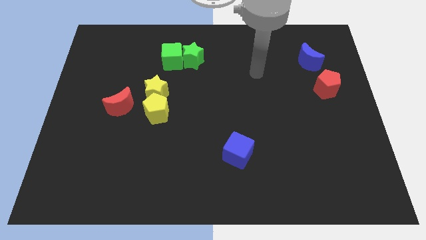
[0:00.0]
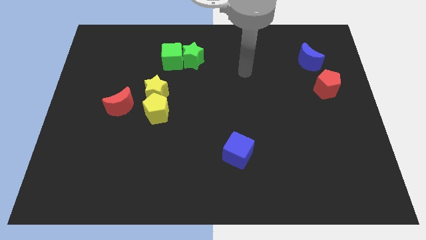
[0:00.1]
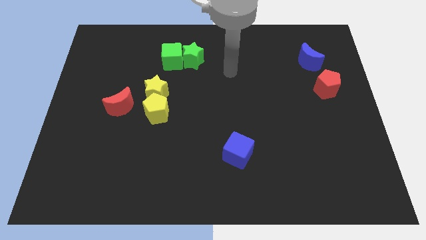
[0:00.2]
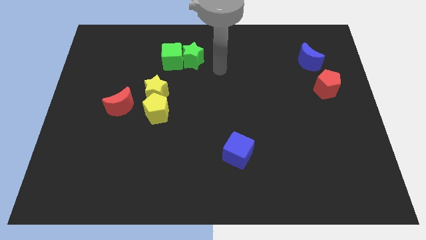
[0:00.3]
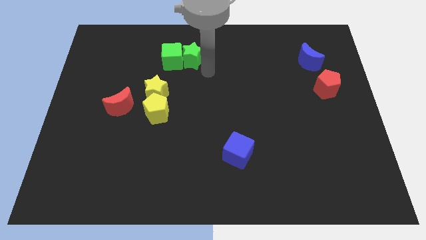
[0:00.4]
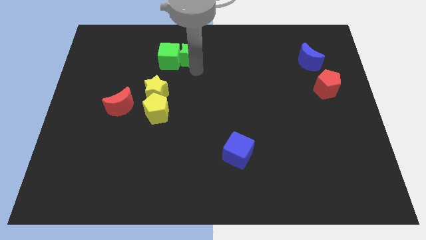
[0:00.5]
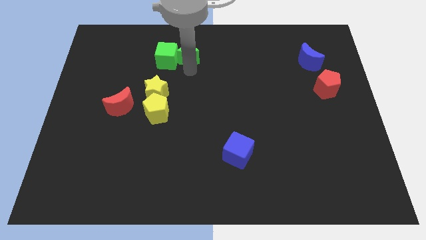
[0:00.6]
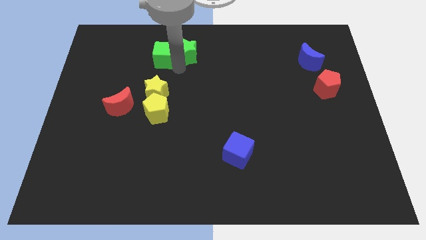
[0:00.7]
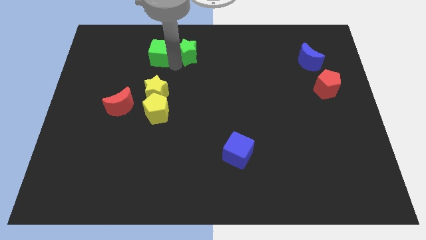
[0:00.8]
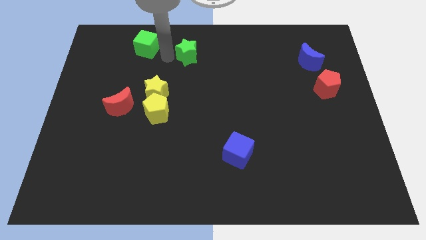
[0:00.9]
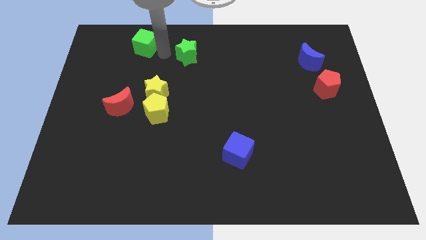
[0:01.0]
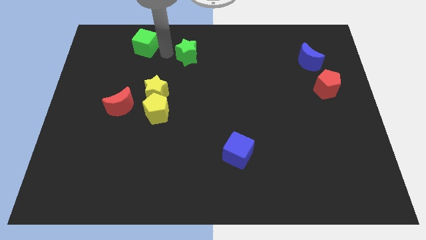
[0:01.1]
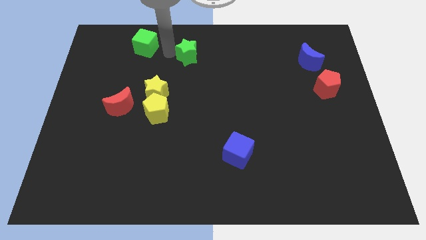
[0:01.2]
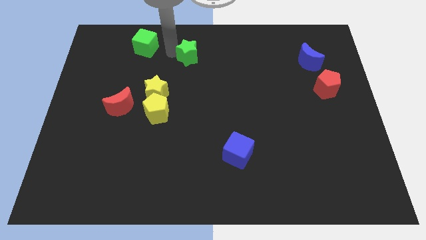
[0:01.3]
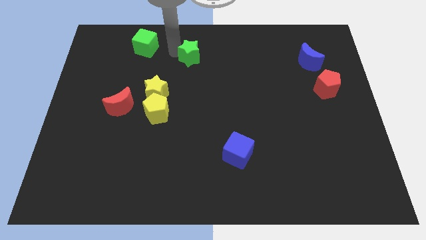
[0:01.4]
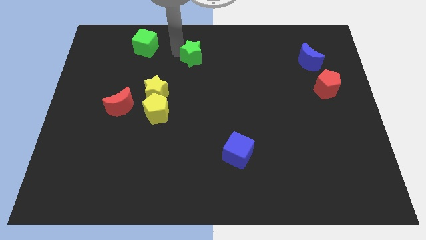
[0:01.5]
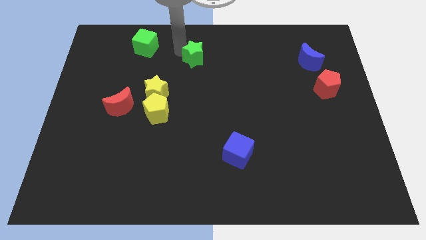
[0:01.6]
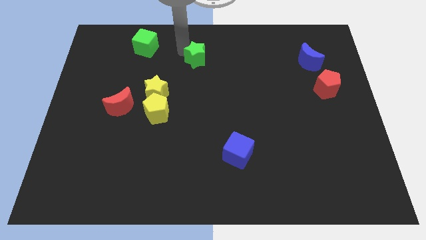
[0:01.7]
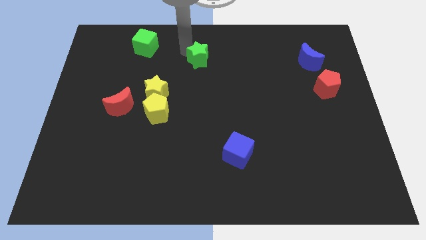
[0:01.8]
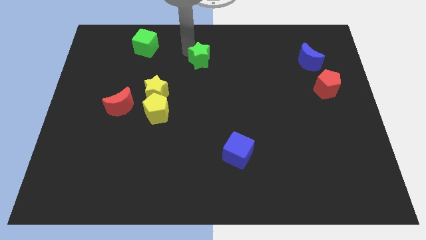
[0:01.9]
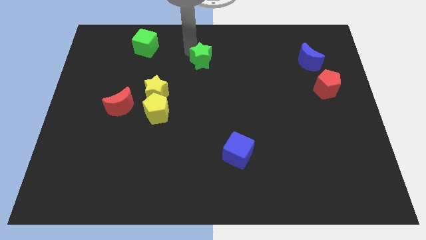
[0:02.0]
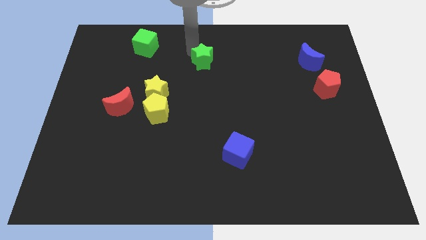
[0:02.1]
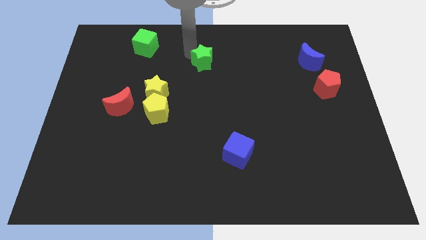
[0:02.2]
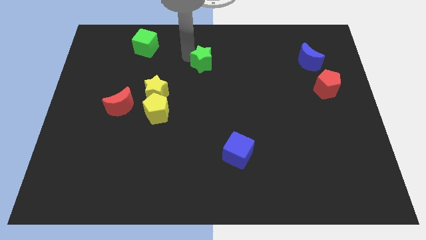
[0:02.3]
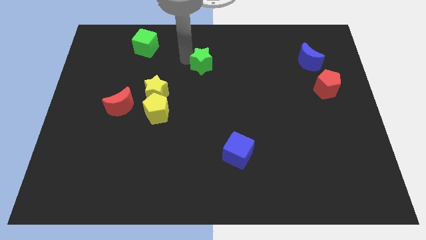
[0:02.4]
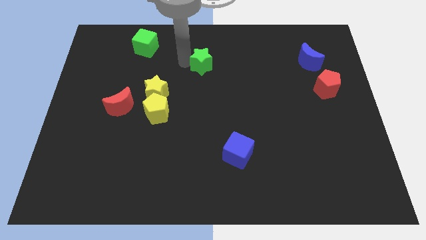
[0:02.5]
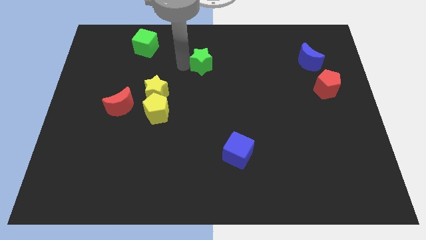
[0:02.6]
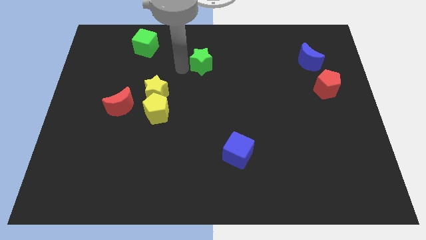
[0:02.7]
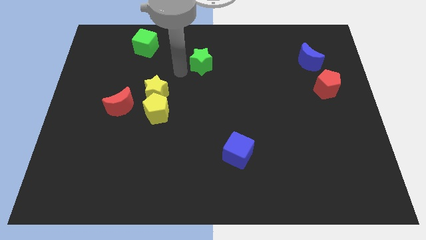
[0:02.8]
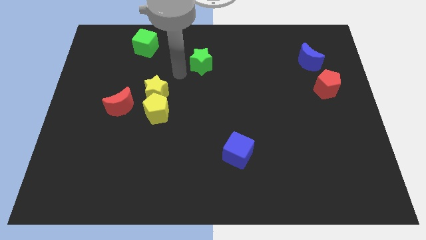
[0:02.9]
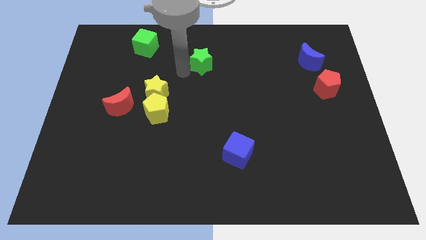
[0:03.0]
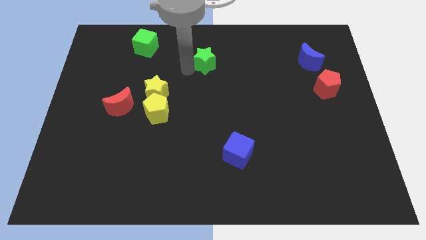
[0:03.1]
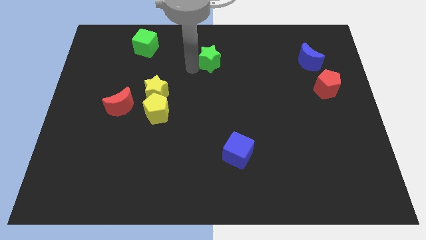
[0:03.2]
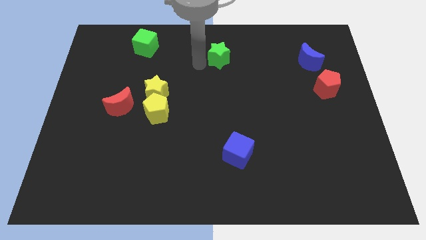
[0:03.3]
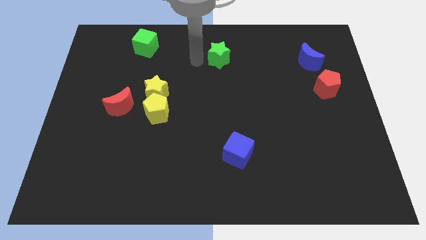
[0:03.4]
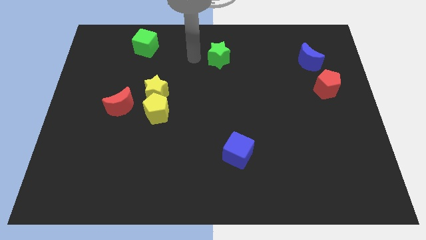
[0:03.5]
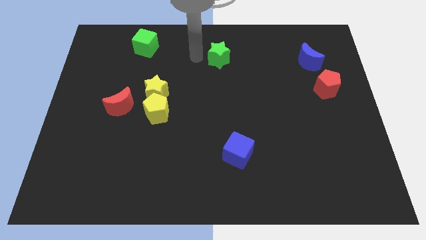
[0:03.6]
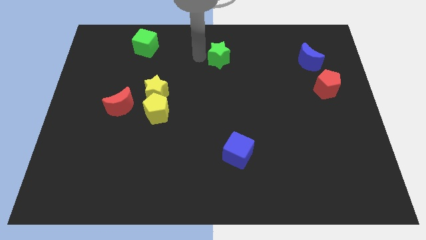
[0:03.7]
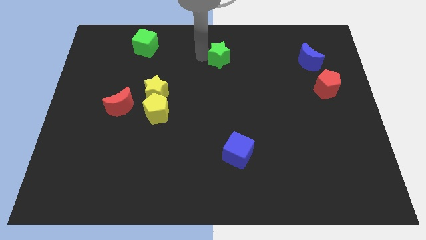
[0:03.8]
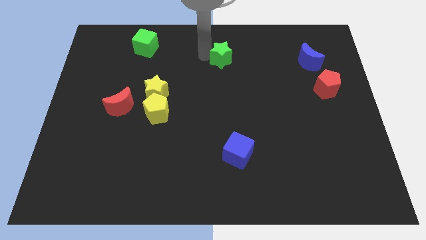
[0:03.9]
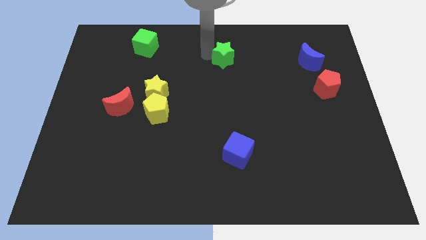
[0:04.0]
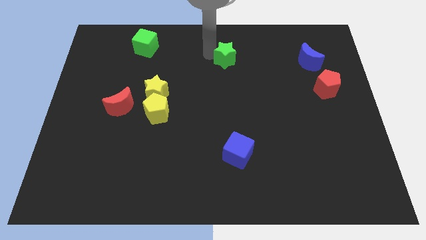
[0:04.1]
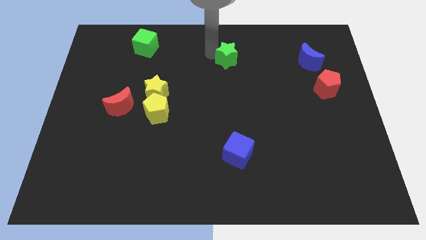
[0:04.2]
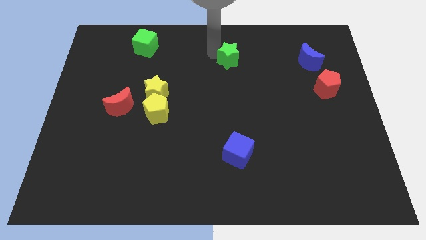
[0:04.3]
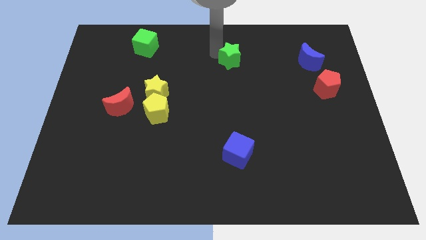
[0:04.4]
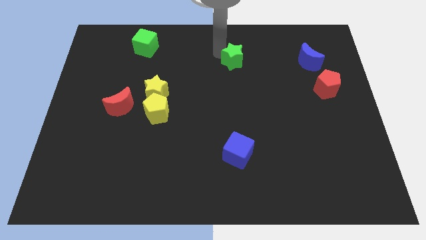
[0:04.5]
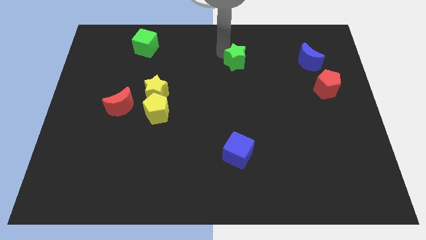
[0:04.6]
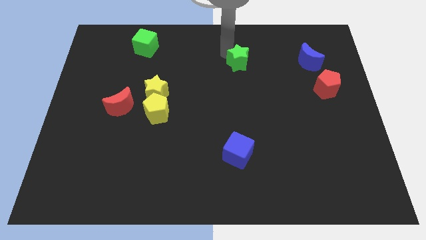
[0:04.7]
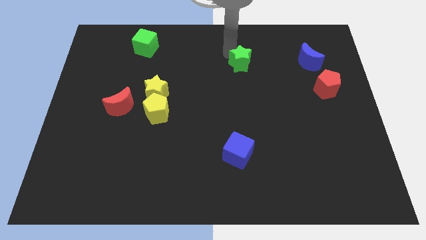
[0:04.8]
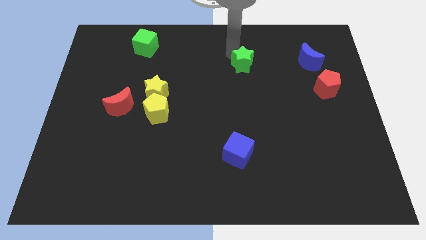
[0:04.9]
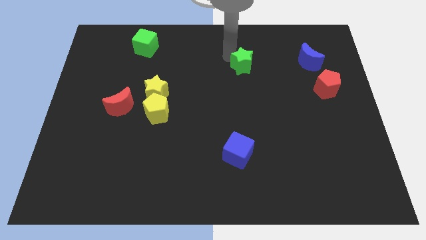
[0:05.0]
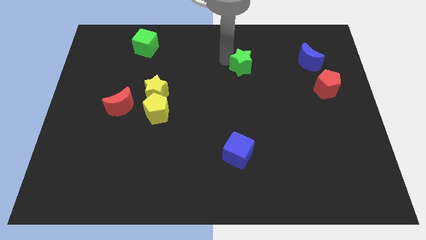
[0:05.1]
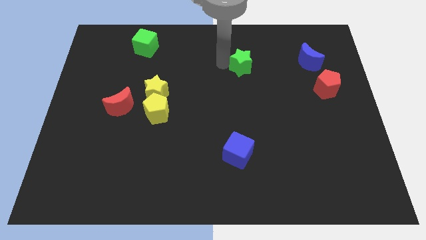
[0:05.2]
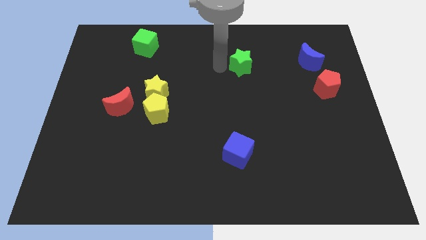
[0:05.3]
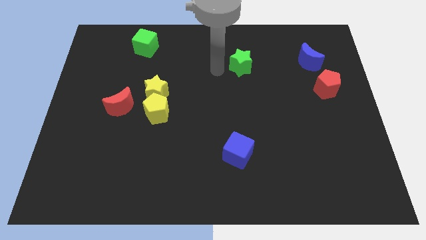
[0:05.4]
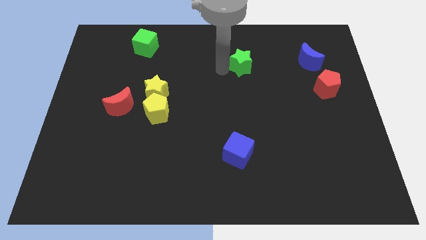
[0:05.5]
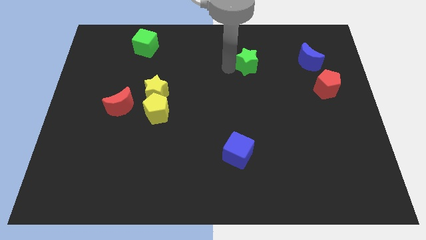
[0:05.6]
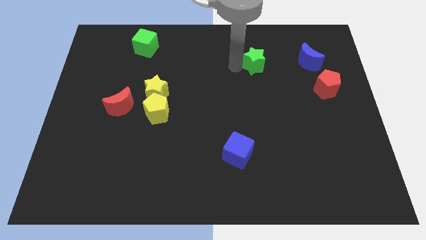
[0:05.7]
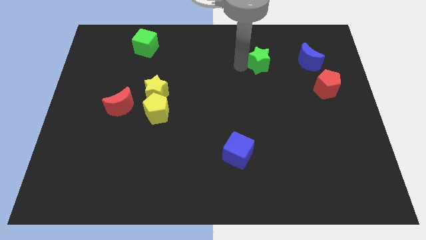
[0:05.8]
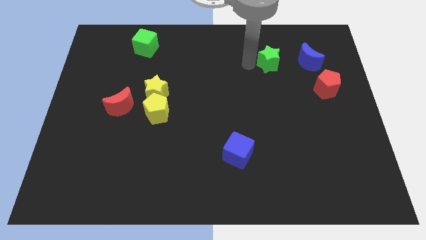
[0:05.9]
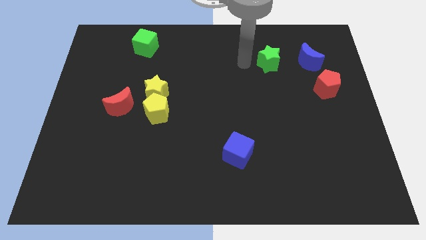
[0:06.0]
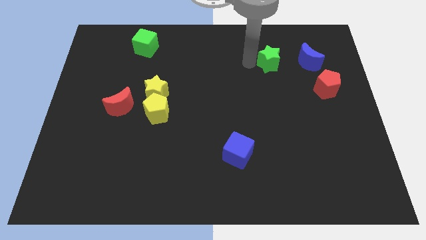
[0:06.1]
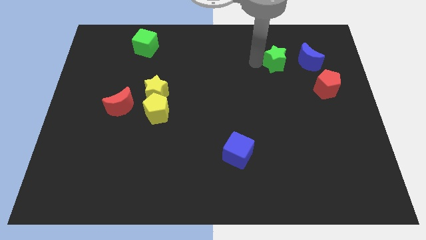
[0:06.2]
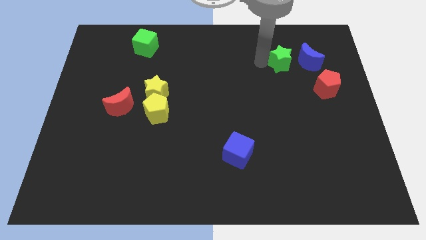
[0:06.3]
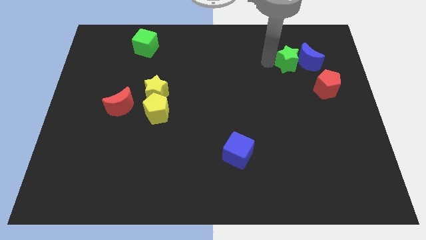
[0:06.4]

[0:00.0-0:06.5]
slide the green star close to the blue moon

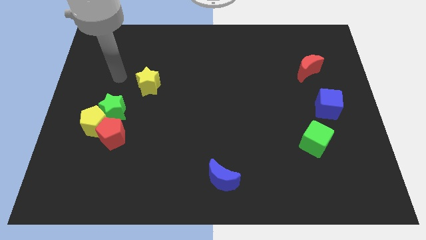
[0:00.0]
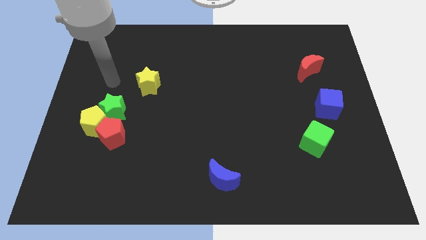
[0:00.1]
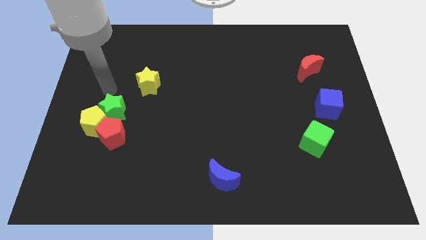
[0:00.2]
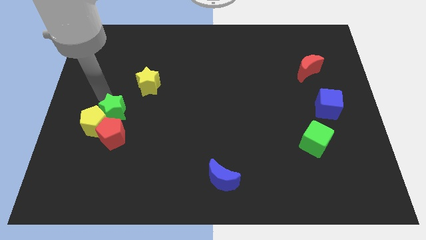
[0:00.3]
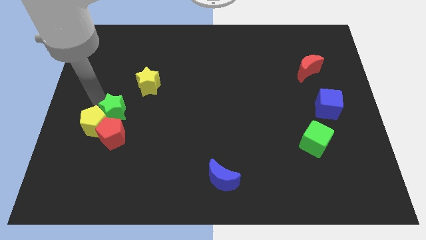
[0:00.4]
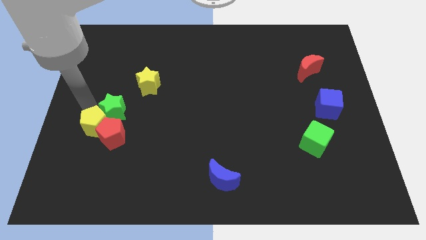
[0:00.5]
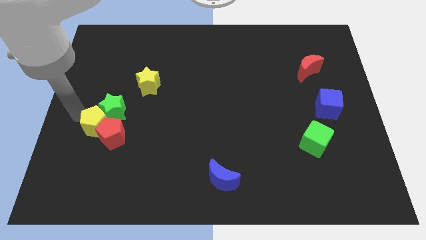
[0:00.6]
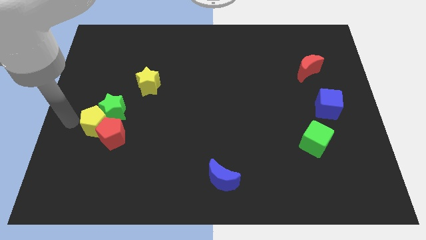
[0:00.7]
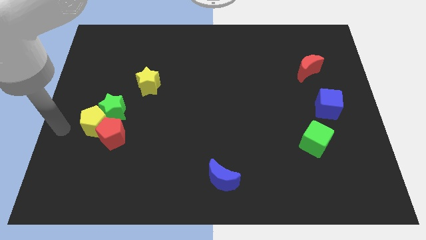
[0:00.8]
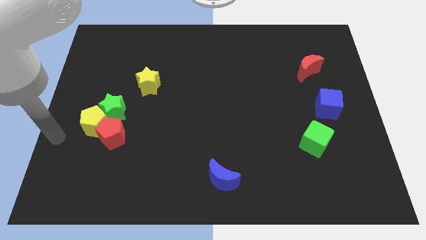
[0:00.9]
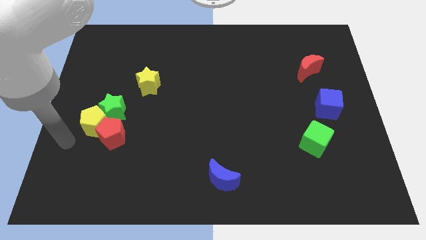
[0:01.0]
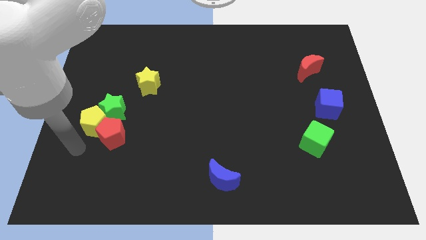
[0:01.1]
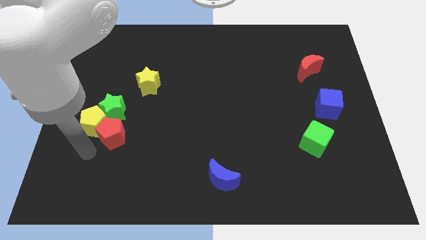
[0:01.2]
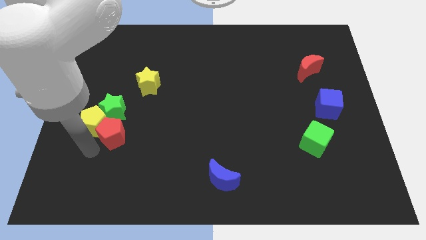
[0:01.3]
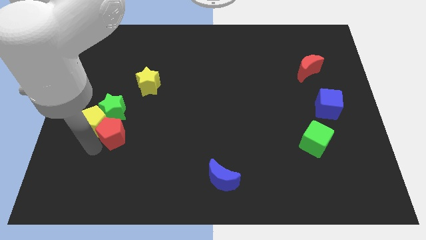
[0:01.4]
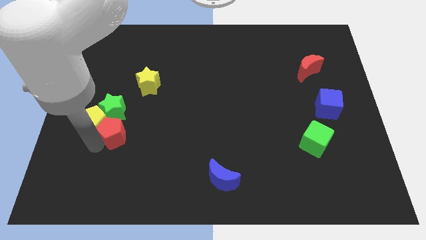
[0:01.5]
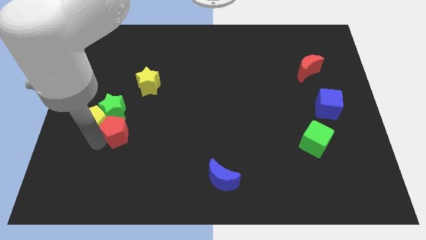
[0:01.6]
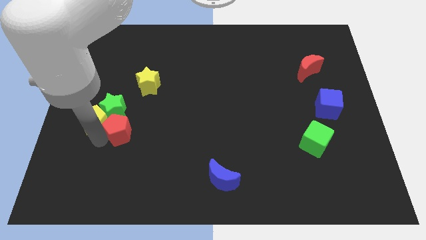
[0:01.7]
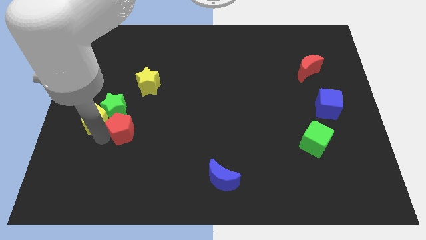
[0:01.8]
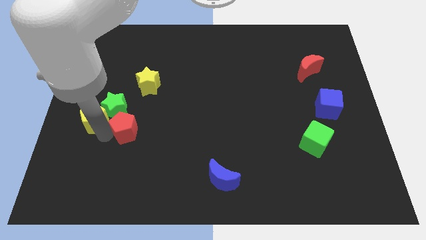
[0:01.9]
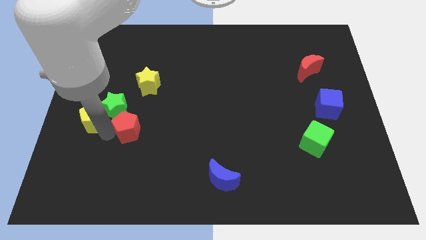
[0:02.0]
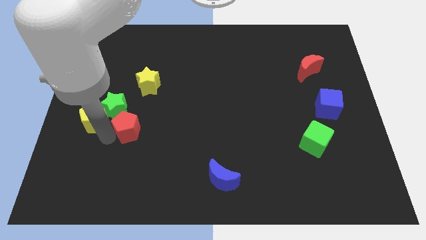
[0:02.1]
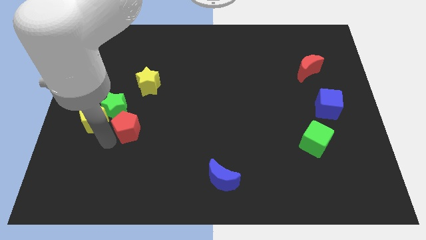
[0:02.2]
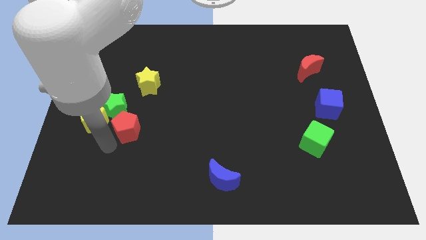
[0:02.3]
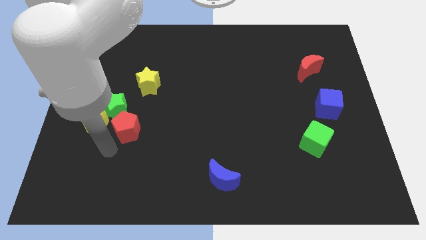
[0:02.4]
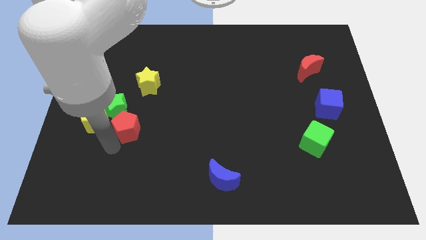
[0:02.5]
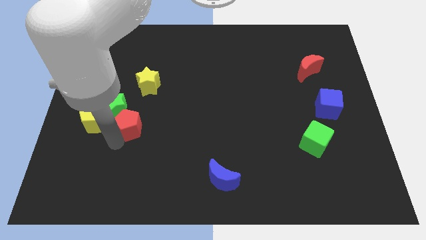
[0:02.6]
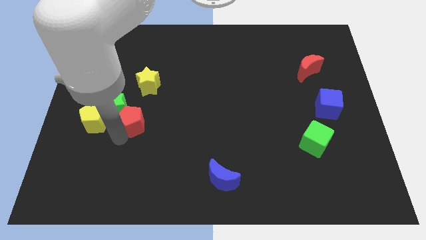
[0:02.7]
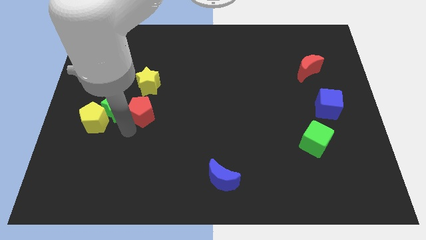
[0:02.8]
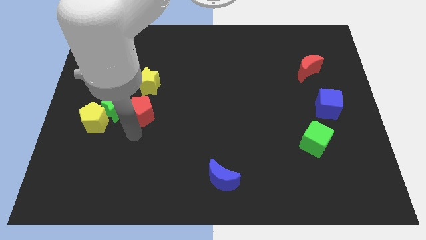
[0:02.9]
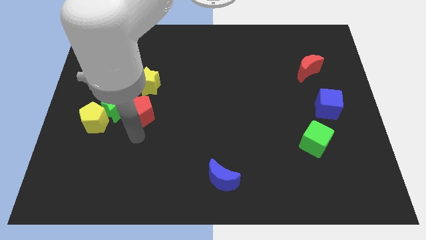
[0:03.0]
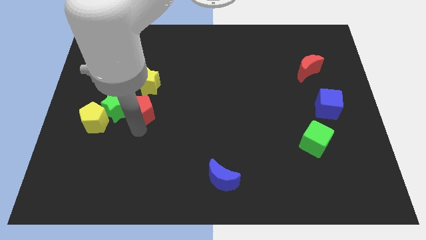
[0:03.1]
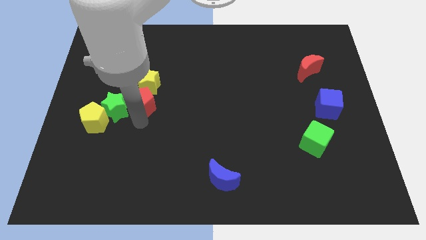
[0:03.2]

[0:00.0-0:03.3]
slide the red pentagon towards the yellow star
